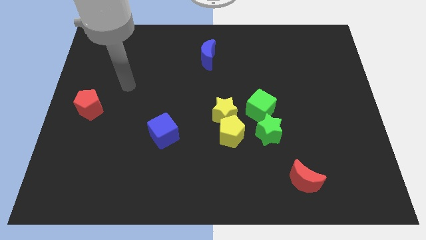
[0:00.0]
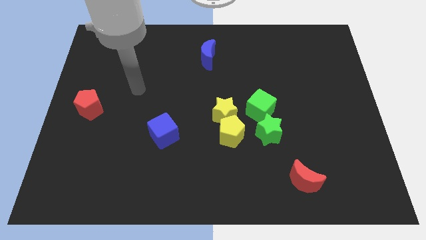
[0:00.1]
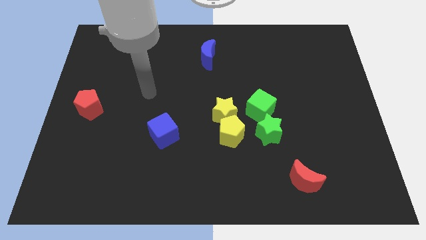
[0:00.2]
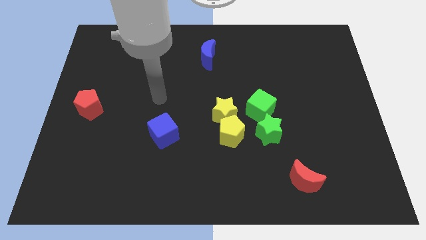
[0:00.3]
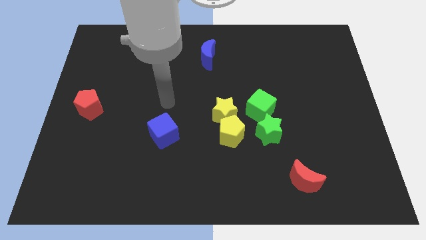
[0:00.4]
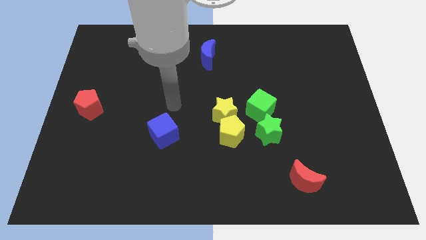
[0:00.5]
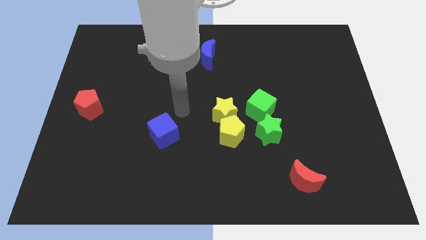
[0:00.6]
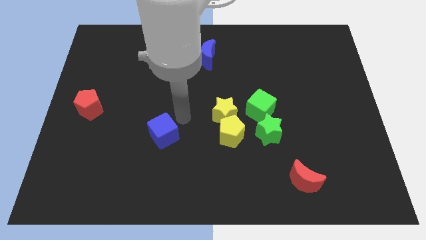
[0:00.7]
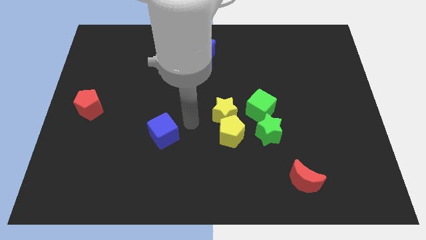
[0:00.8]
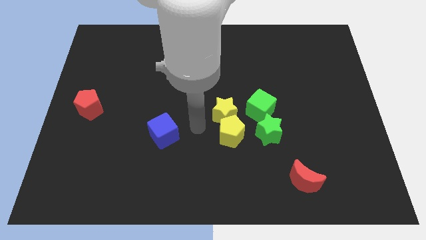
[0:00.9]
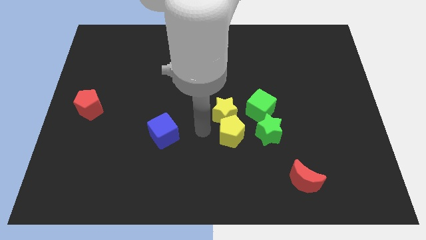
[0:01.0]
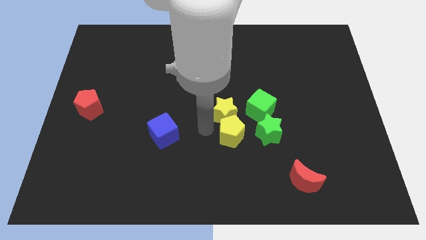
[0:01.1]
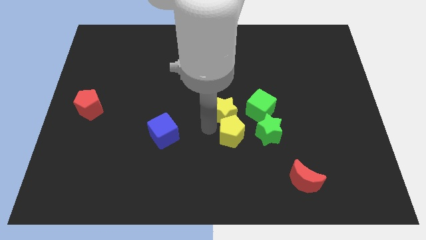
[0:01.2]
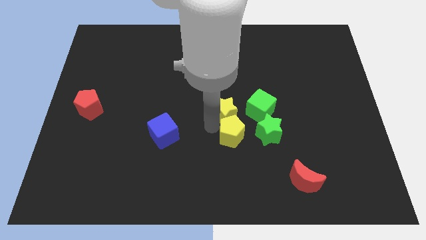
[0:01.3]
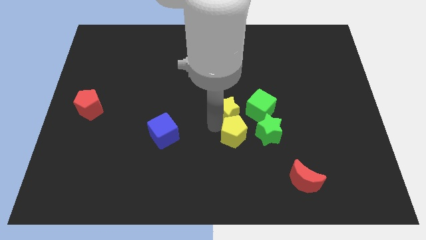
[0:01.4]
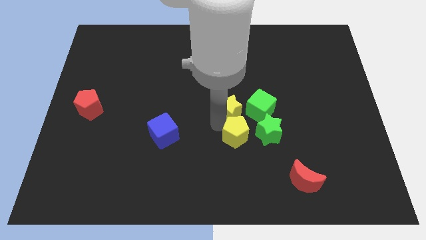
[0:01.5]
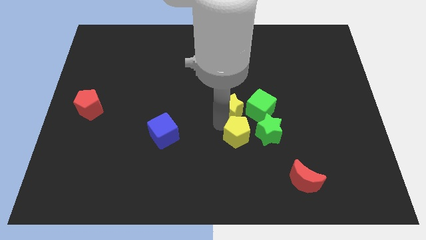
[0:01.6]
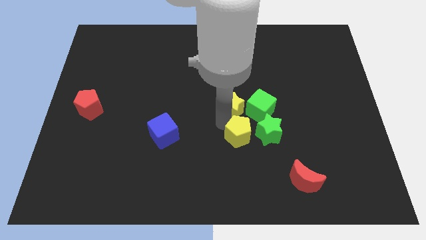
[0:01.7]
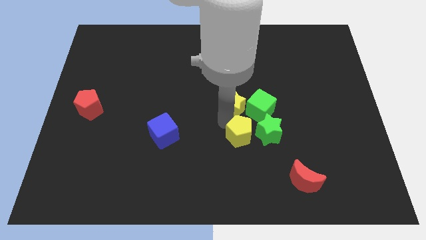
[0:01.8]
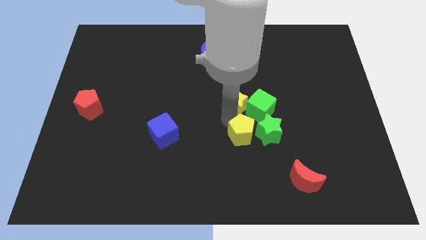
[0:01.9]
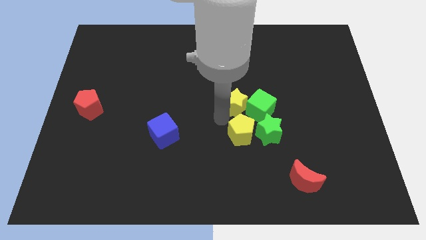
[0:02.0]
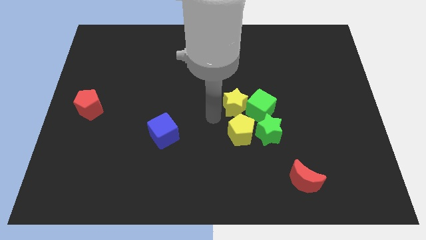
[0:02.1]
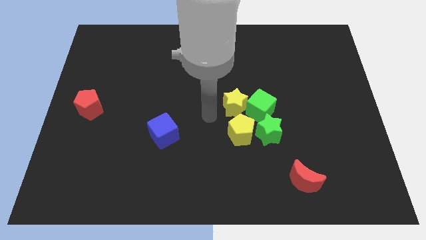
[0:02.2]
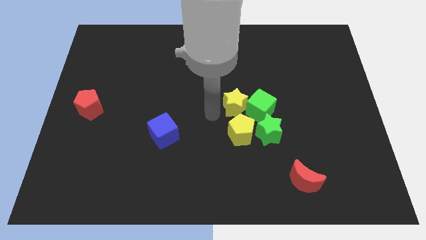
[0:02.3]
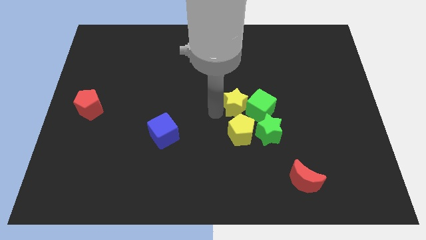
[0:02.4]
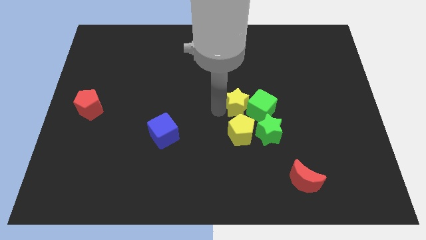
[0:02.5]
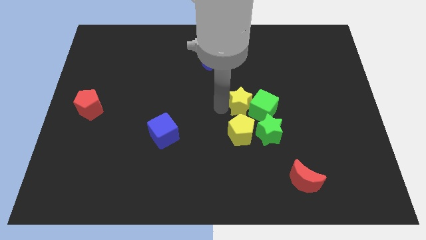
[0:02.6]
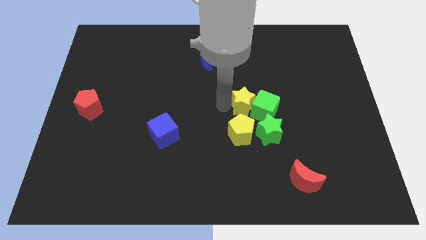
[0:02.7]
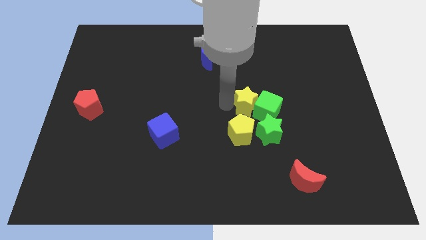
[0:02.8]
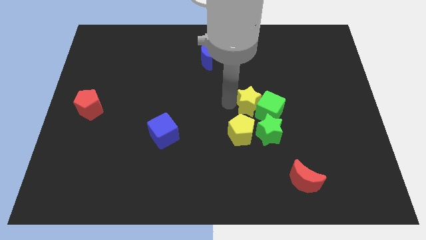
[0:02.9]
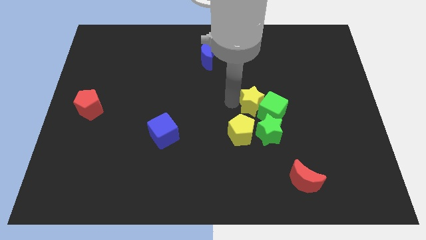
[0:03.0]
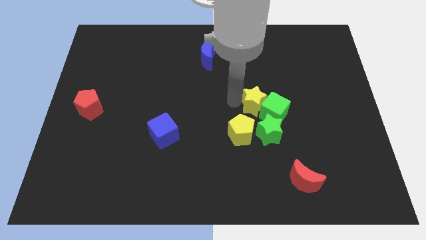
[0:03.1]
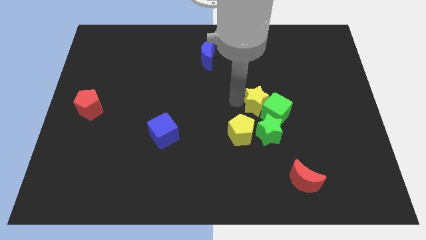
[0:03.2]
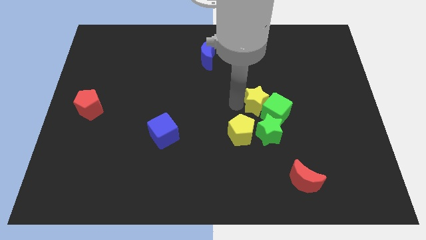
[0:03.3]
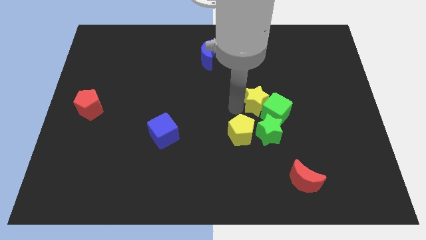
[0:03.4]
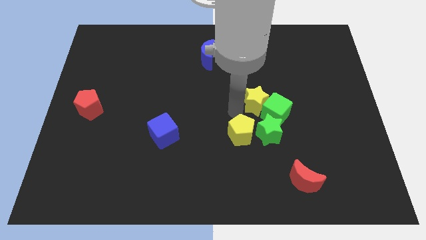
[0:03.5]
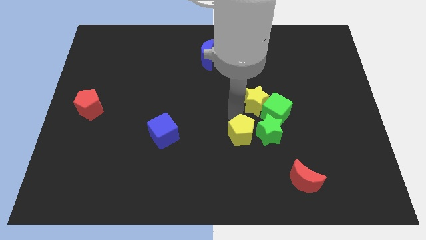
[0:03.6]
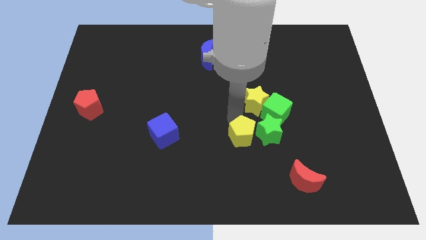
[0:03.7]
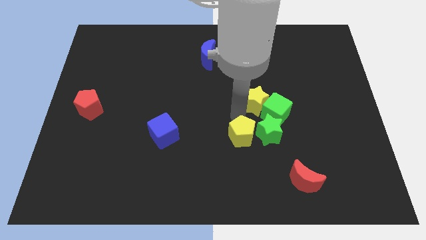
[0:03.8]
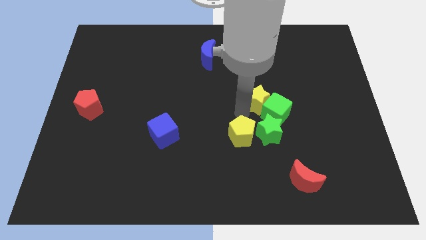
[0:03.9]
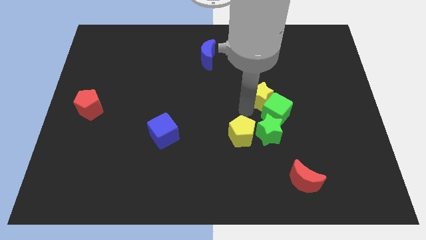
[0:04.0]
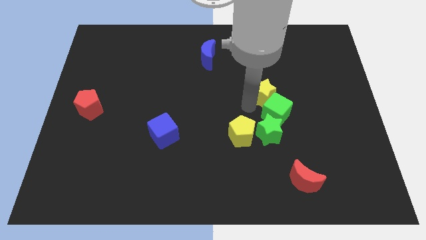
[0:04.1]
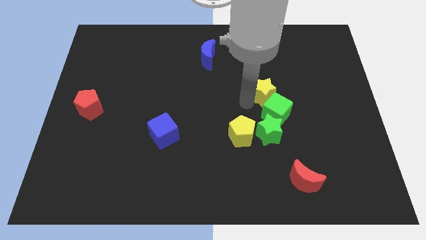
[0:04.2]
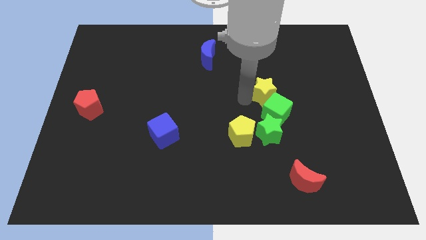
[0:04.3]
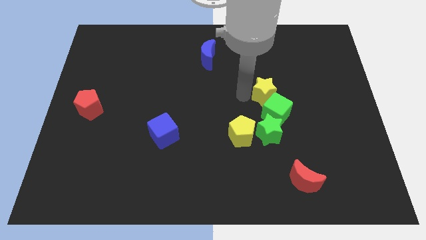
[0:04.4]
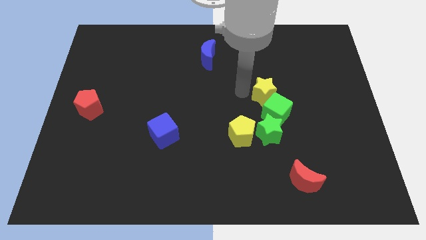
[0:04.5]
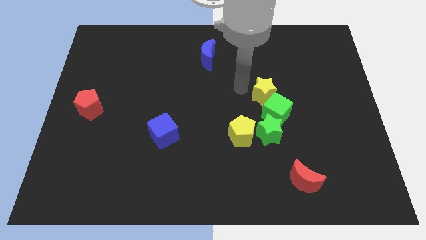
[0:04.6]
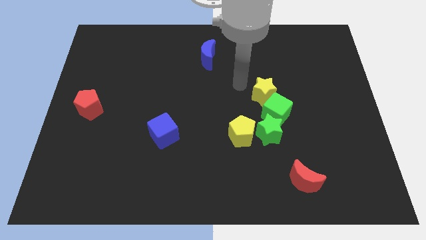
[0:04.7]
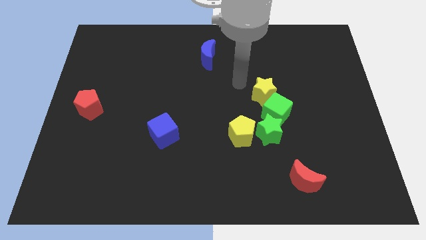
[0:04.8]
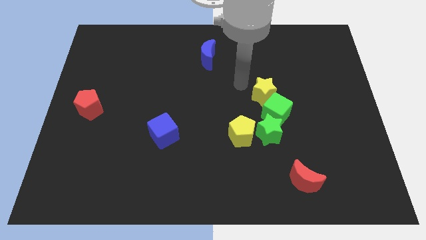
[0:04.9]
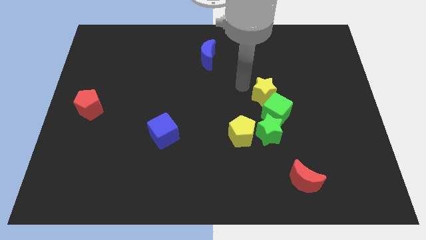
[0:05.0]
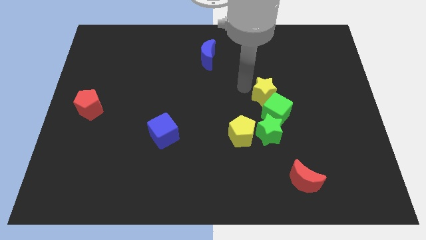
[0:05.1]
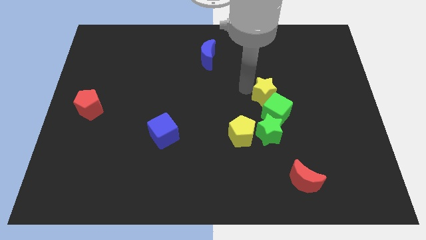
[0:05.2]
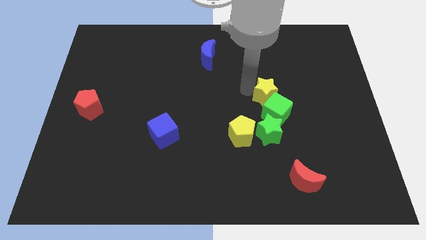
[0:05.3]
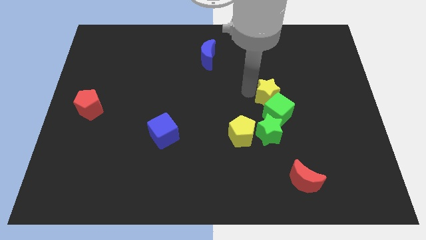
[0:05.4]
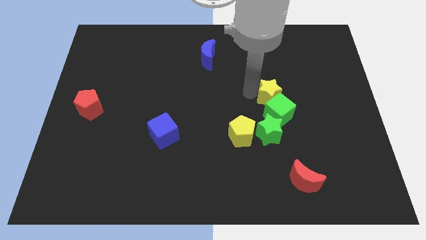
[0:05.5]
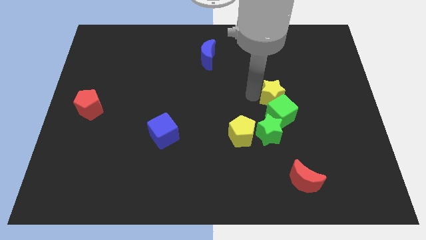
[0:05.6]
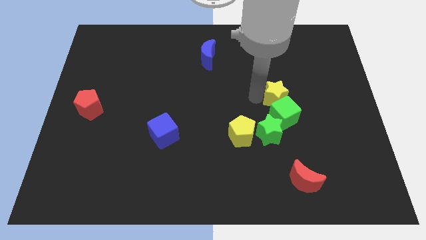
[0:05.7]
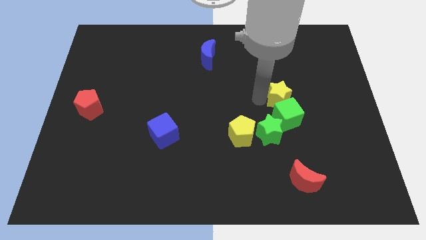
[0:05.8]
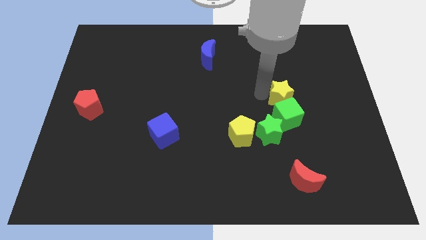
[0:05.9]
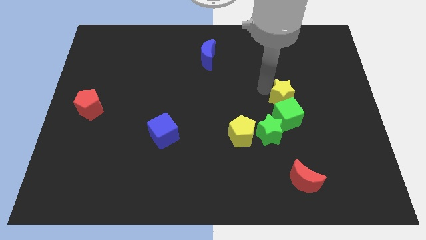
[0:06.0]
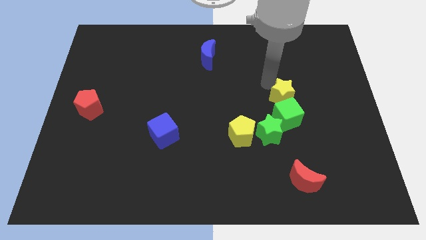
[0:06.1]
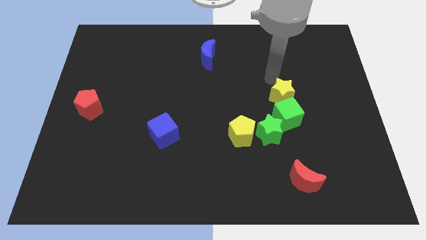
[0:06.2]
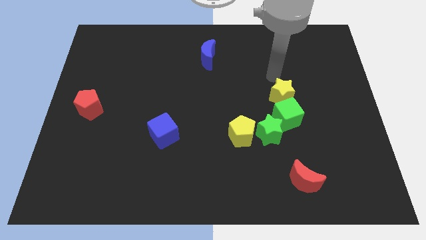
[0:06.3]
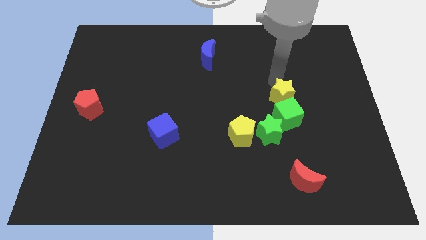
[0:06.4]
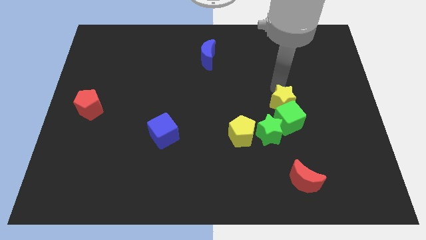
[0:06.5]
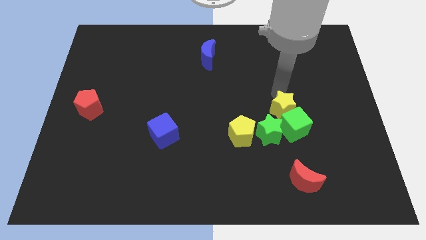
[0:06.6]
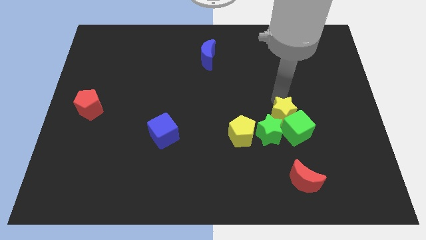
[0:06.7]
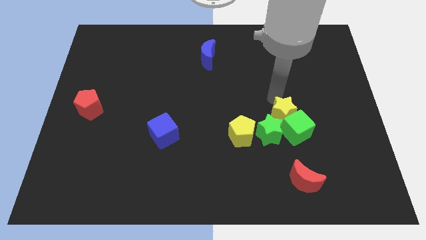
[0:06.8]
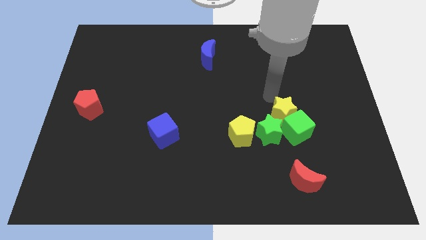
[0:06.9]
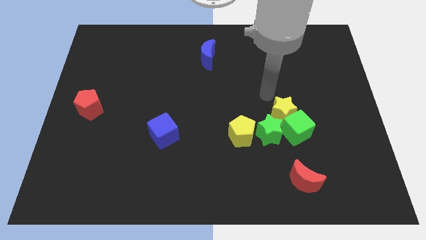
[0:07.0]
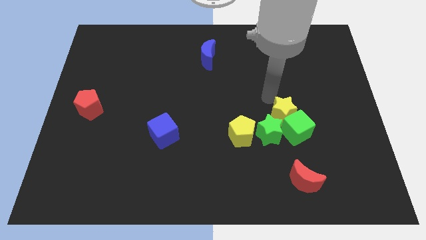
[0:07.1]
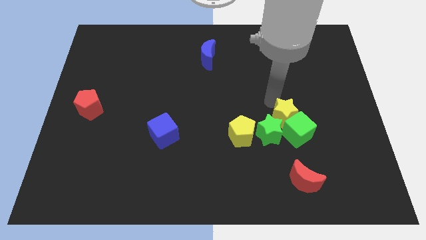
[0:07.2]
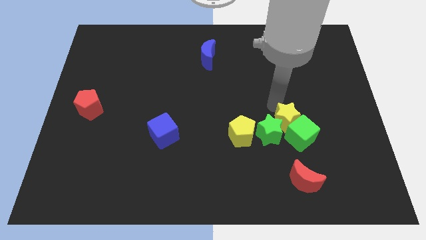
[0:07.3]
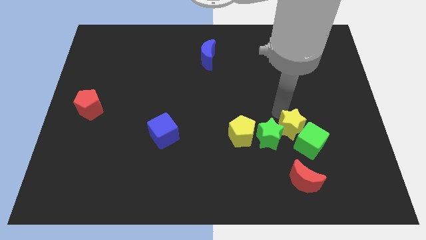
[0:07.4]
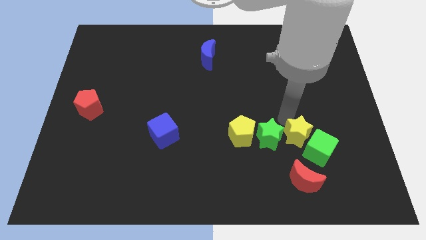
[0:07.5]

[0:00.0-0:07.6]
move the yellow star to the bottom right of the green star
